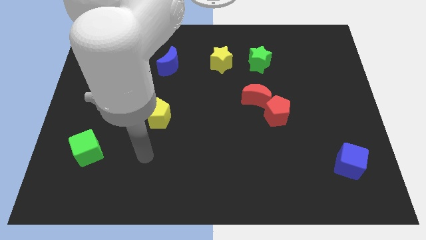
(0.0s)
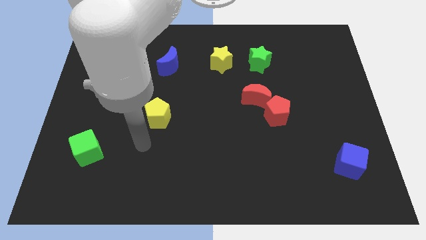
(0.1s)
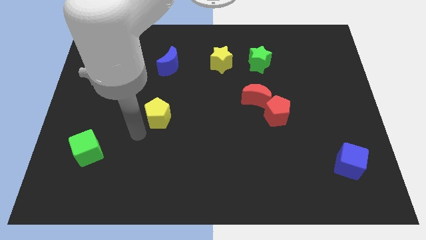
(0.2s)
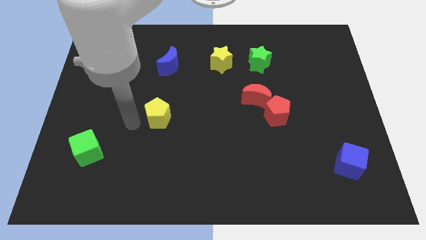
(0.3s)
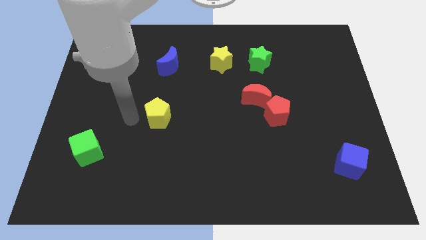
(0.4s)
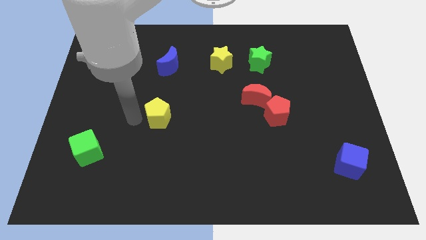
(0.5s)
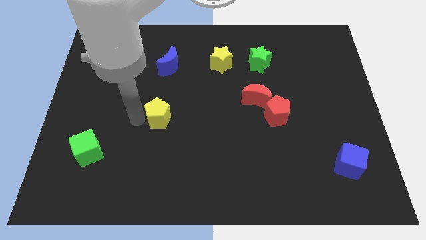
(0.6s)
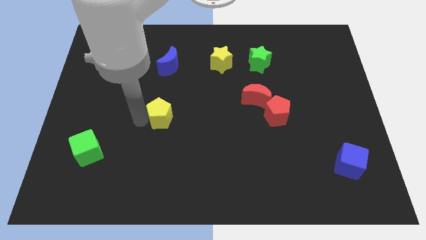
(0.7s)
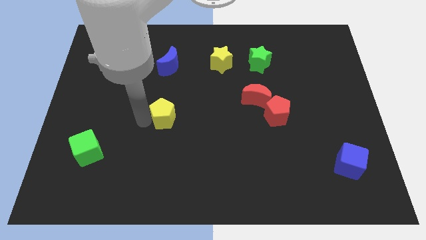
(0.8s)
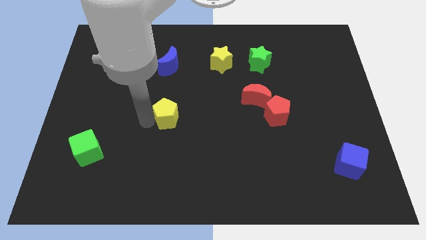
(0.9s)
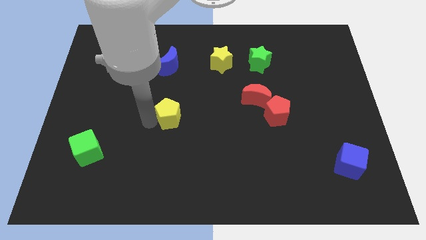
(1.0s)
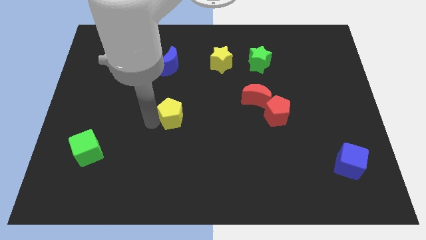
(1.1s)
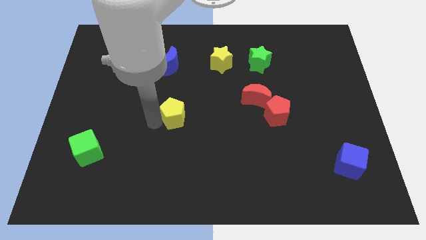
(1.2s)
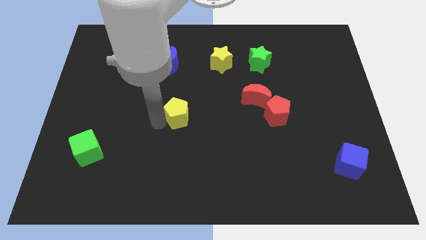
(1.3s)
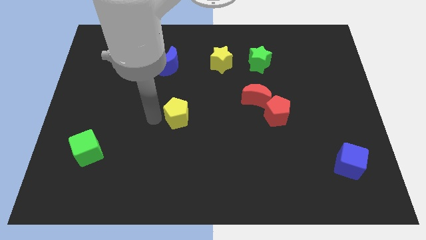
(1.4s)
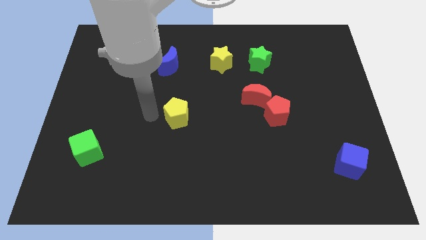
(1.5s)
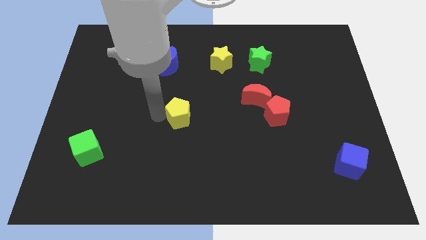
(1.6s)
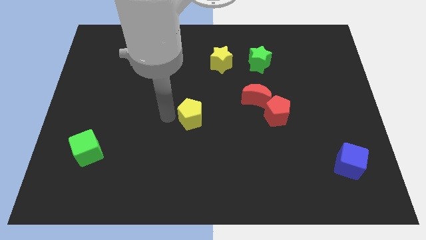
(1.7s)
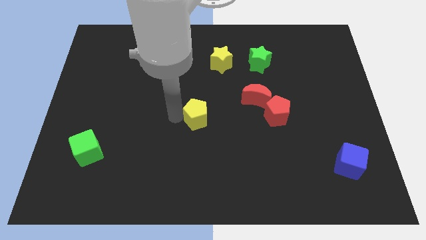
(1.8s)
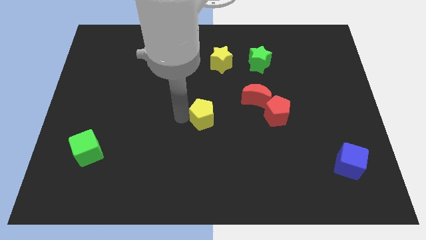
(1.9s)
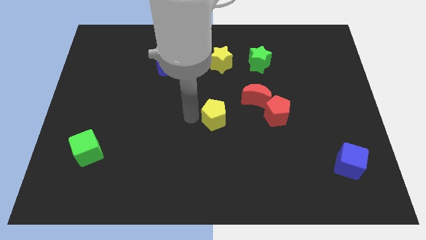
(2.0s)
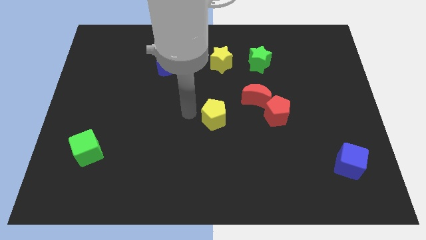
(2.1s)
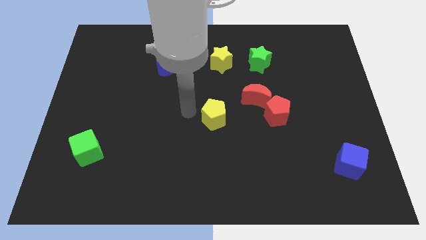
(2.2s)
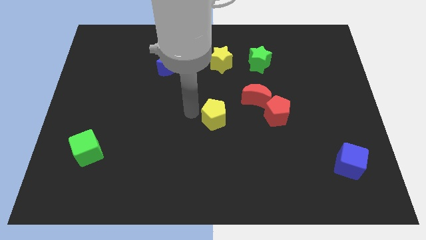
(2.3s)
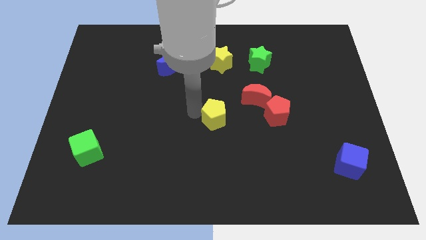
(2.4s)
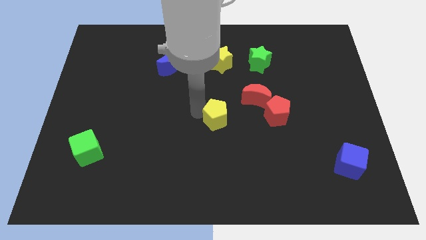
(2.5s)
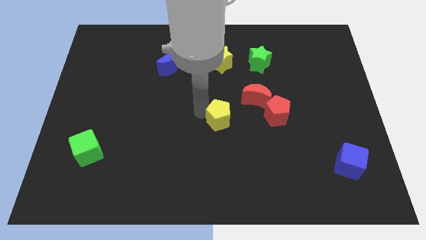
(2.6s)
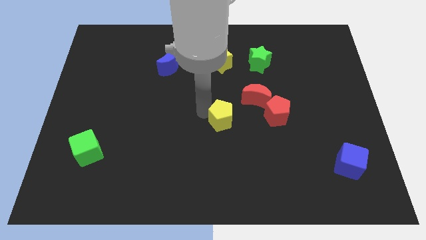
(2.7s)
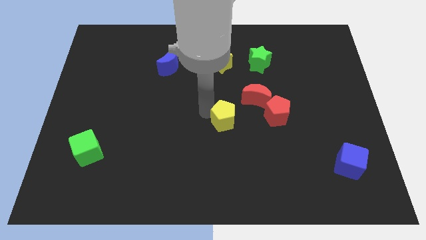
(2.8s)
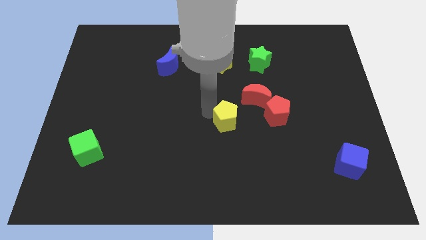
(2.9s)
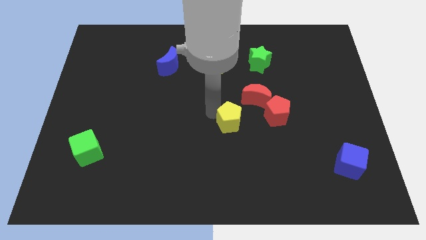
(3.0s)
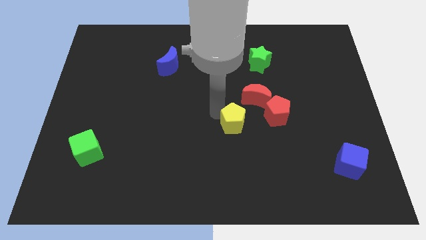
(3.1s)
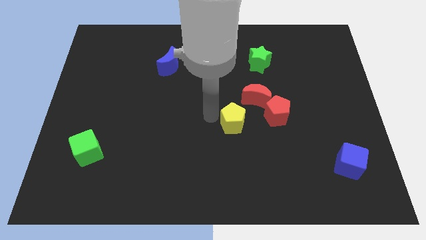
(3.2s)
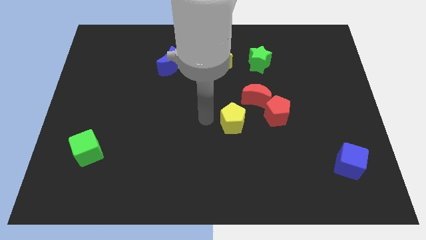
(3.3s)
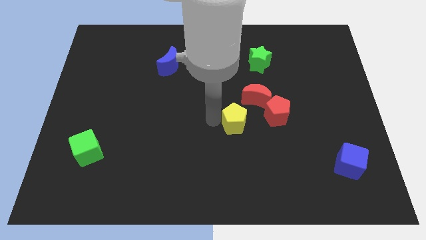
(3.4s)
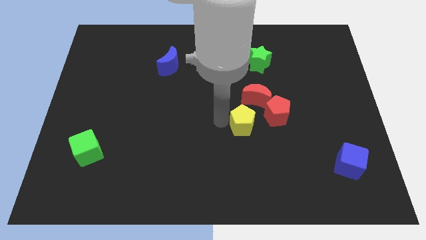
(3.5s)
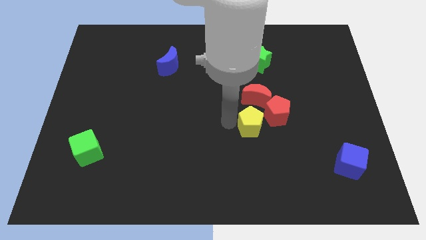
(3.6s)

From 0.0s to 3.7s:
move the yellow pentagon right

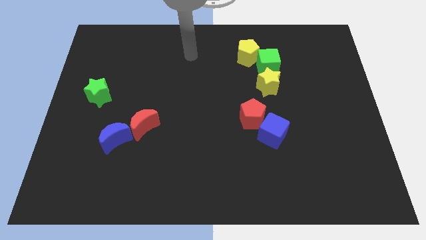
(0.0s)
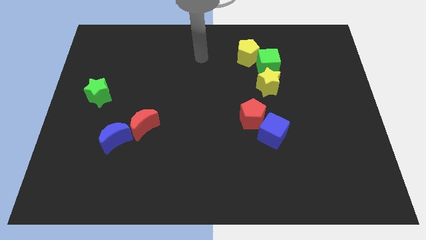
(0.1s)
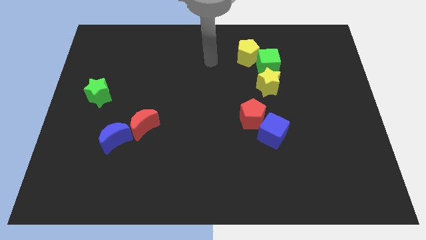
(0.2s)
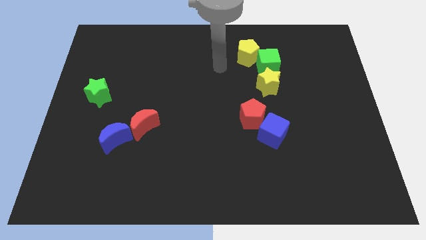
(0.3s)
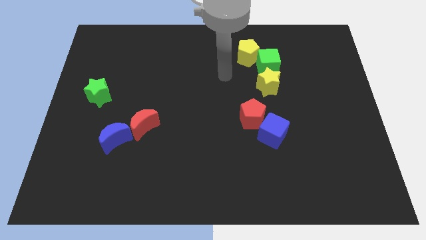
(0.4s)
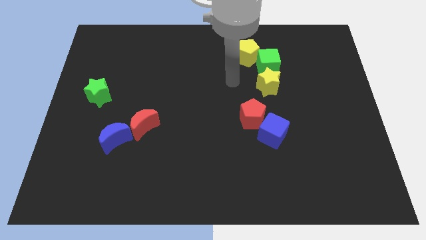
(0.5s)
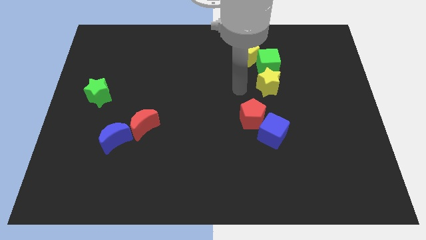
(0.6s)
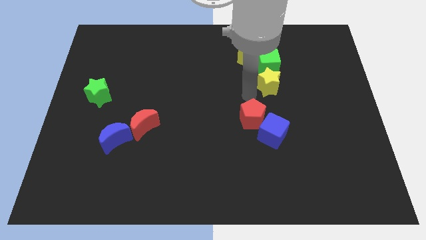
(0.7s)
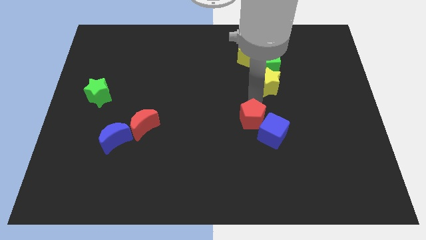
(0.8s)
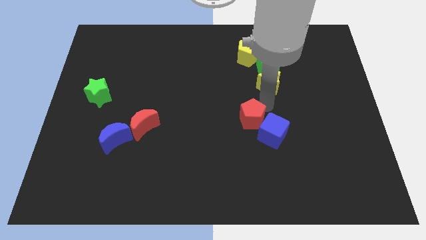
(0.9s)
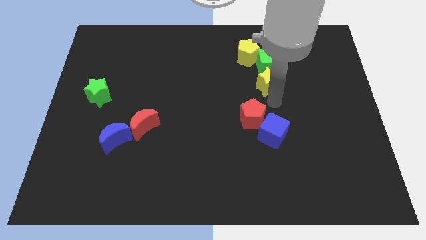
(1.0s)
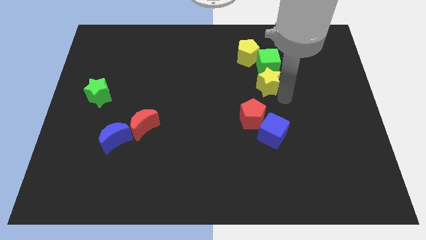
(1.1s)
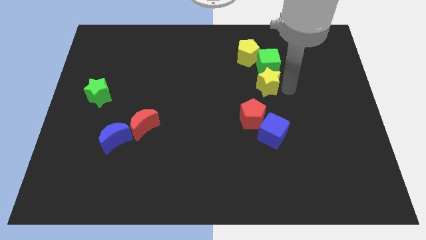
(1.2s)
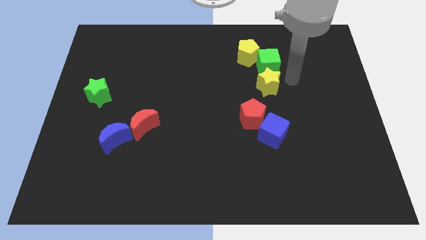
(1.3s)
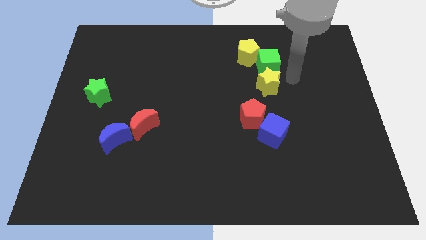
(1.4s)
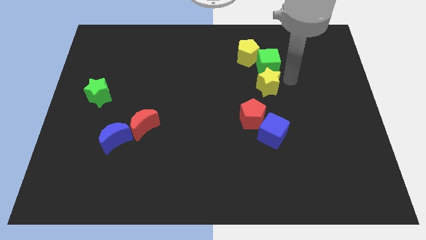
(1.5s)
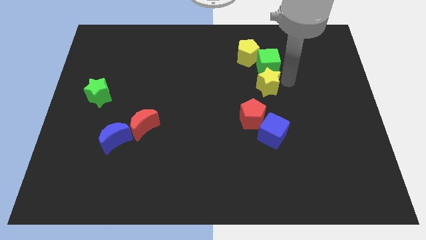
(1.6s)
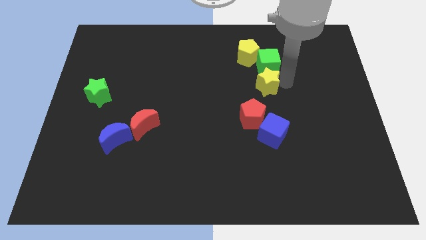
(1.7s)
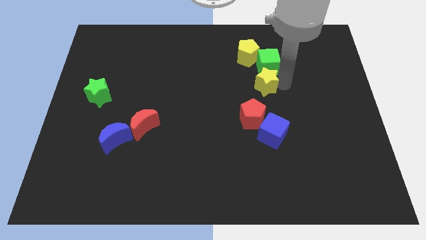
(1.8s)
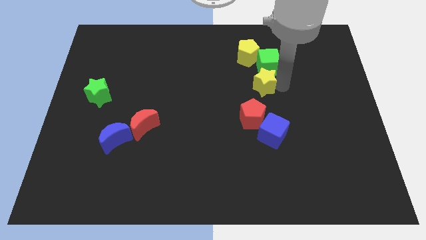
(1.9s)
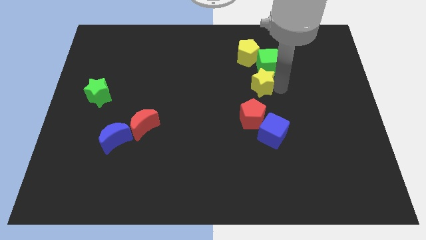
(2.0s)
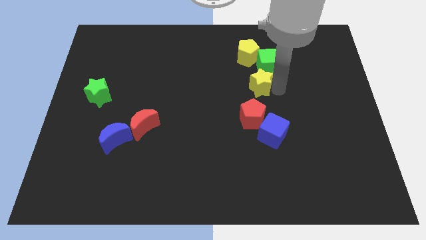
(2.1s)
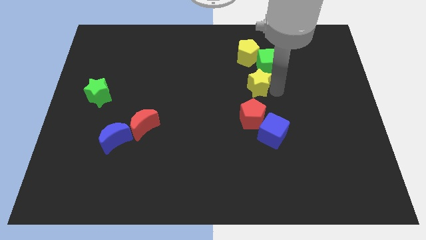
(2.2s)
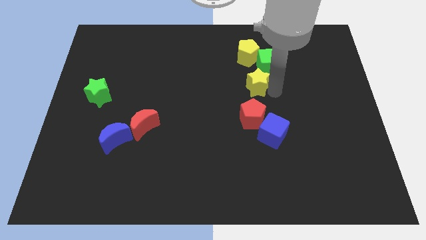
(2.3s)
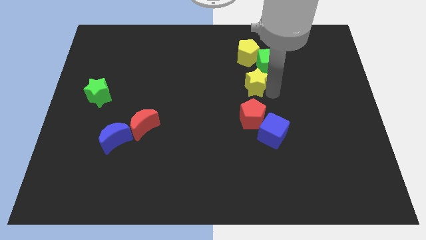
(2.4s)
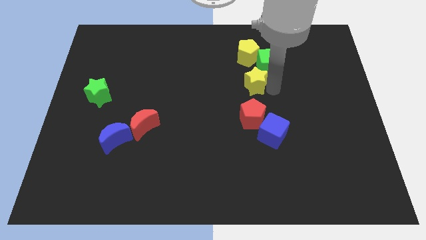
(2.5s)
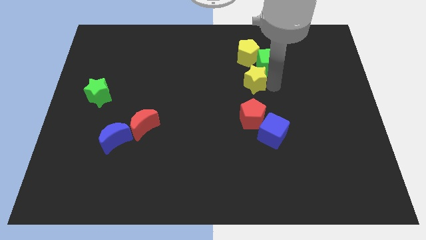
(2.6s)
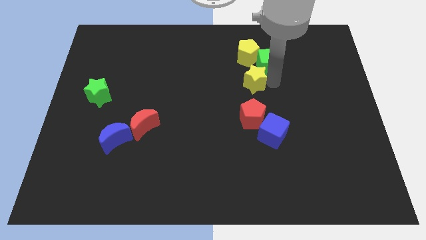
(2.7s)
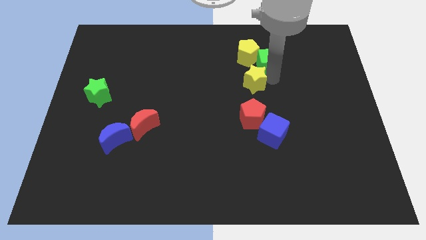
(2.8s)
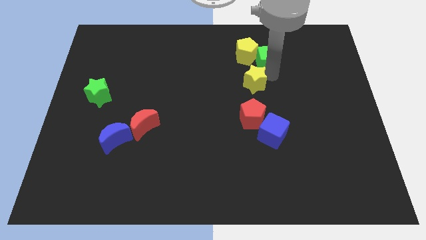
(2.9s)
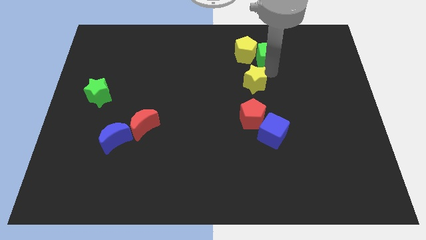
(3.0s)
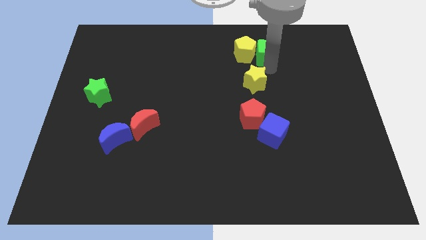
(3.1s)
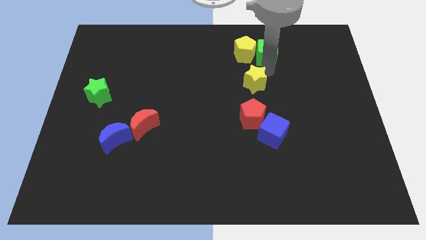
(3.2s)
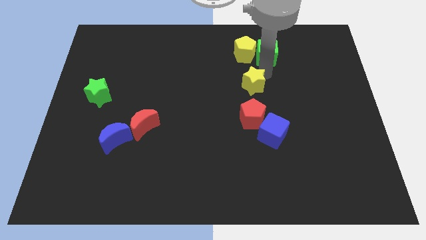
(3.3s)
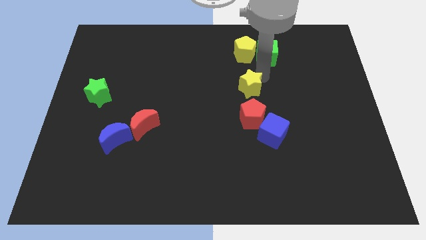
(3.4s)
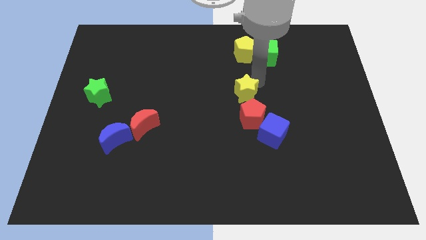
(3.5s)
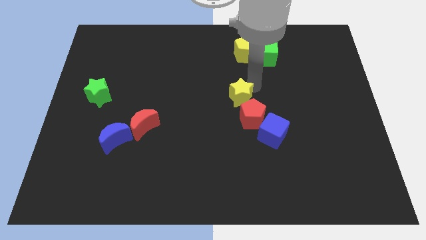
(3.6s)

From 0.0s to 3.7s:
slightly slide the yellow star down and left diagonally

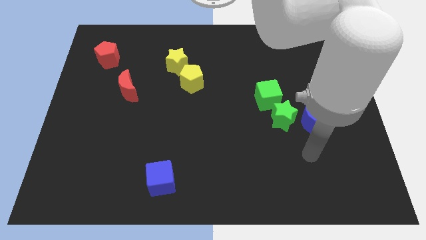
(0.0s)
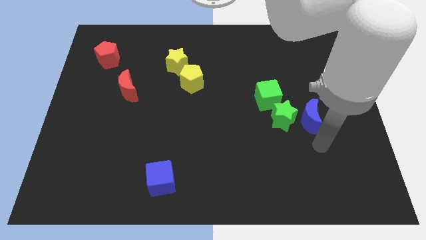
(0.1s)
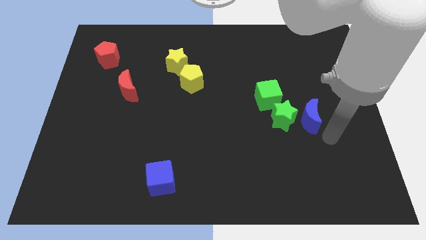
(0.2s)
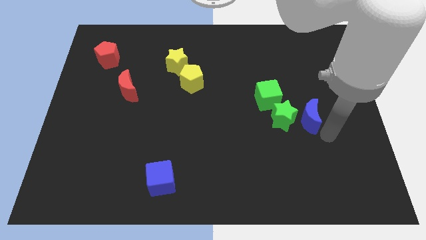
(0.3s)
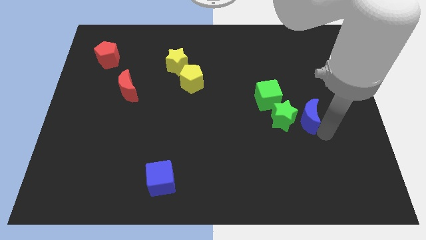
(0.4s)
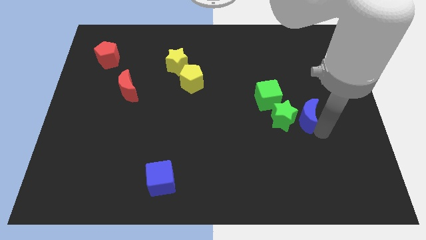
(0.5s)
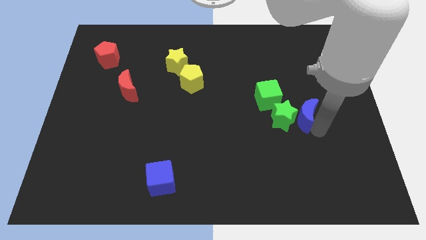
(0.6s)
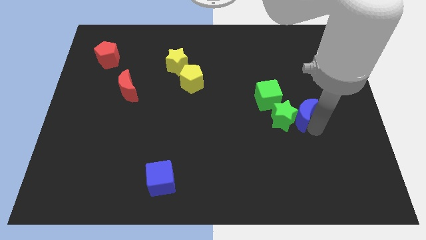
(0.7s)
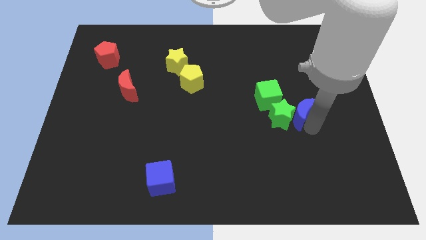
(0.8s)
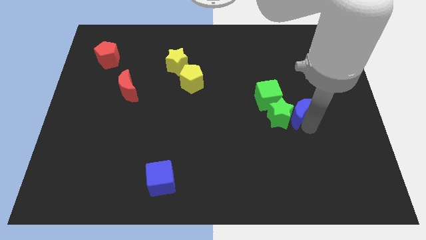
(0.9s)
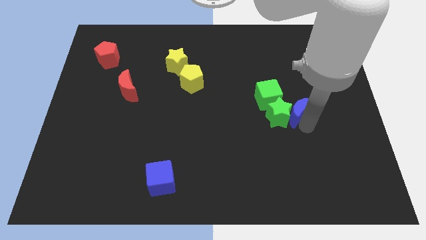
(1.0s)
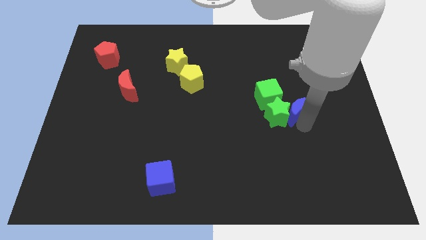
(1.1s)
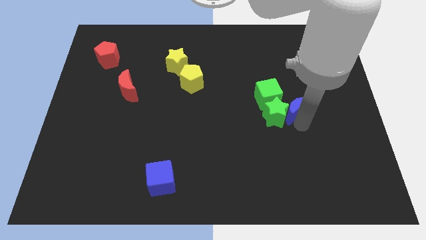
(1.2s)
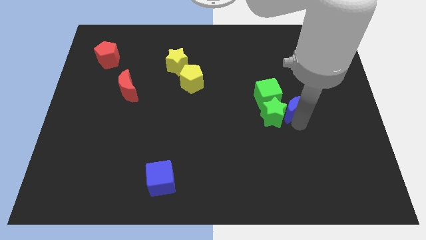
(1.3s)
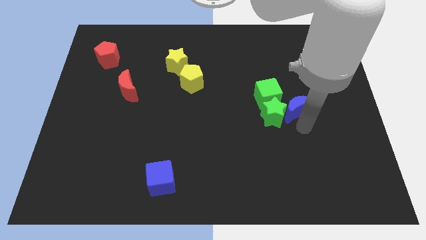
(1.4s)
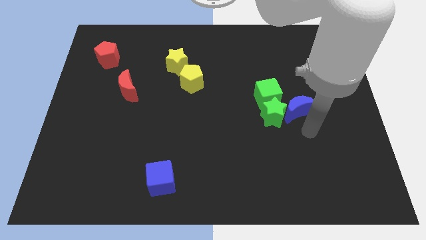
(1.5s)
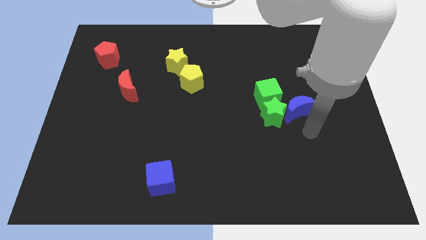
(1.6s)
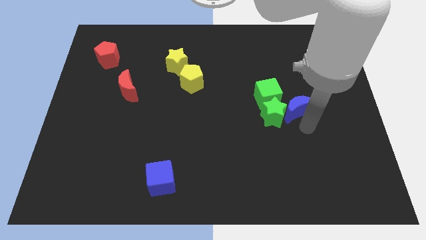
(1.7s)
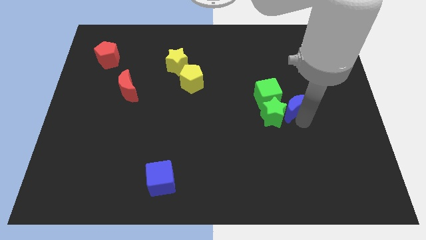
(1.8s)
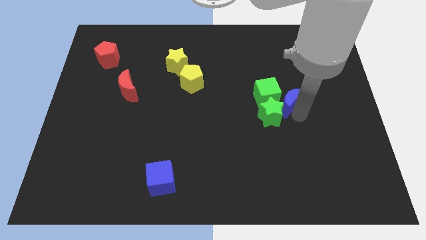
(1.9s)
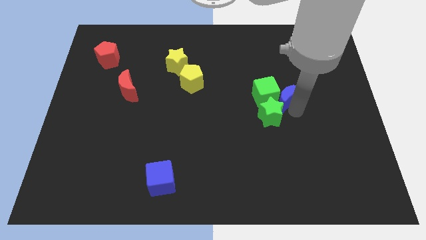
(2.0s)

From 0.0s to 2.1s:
slightly move the blue moon up and to the left diagonally
